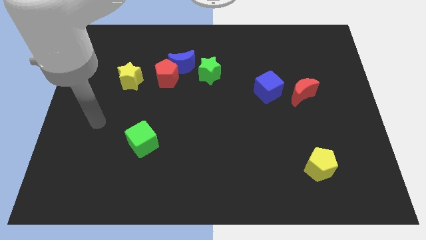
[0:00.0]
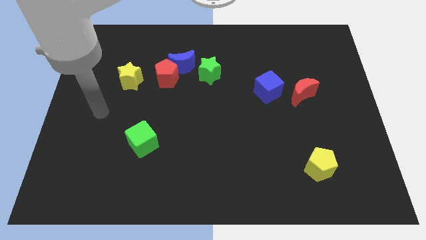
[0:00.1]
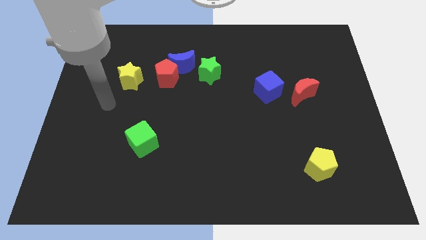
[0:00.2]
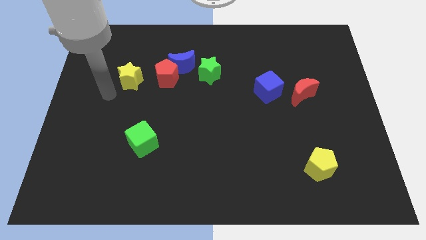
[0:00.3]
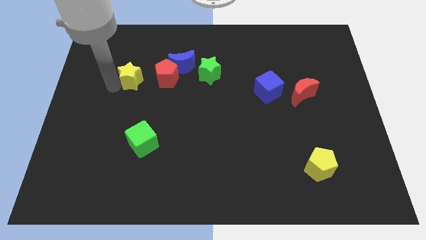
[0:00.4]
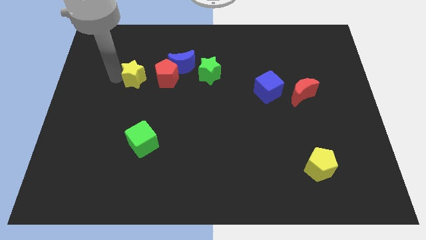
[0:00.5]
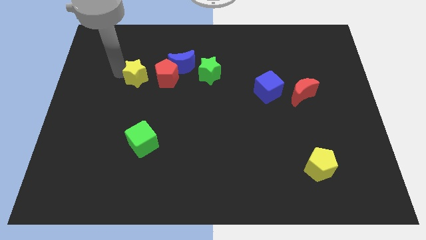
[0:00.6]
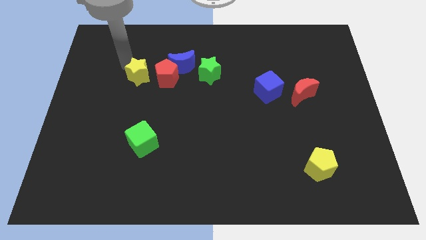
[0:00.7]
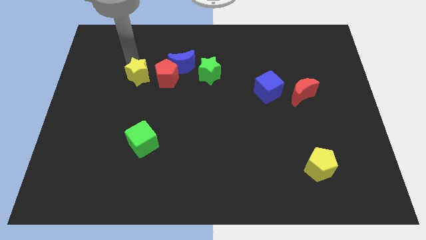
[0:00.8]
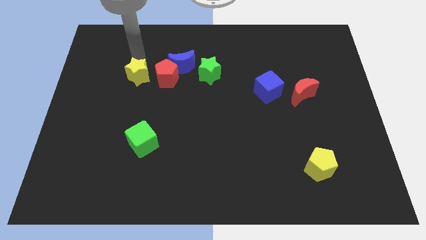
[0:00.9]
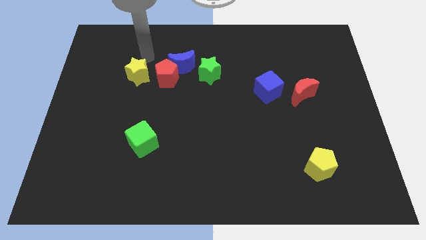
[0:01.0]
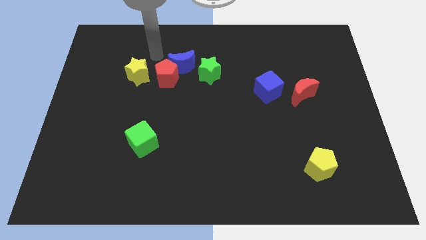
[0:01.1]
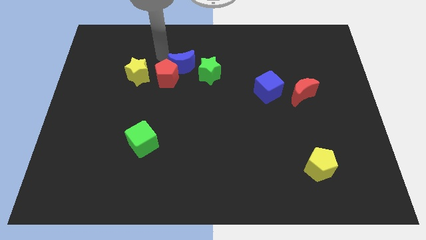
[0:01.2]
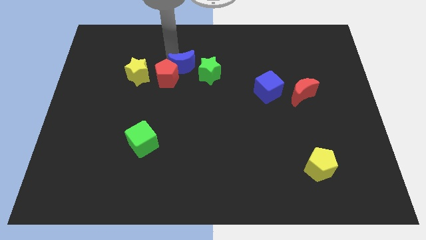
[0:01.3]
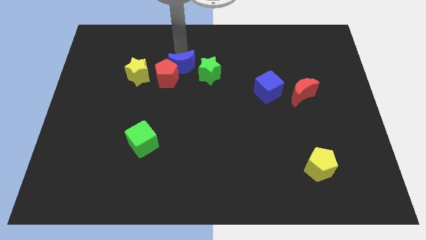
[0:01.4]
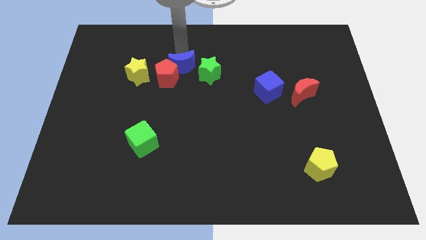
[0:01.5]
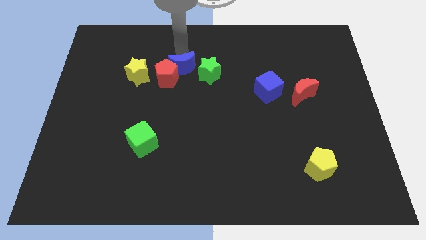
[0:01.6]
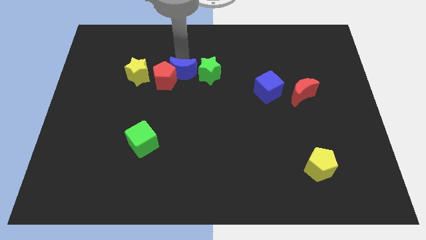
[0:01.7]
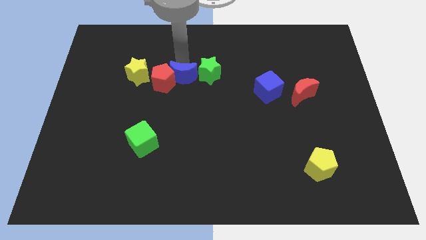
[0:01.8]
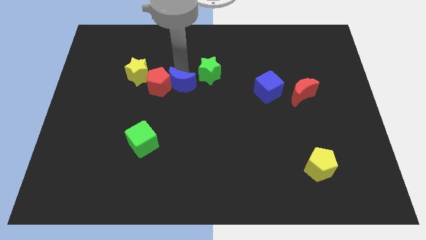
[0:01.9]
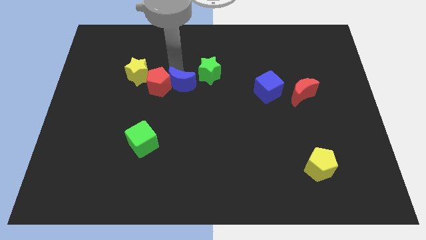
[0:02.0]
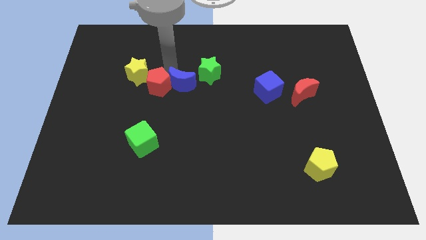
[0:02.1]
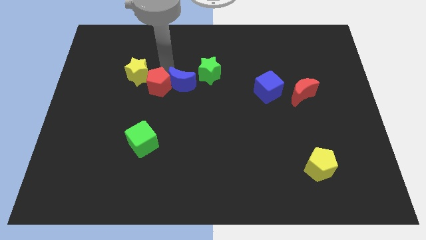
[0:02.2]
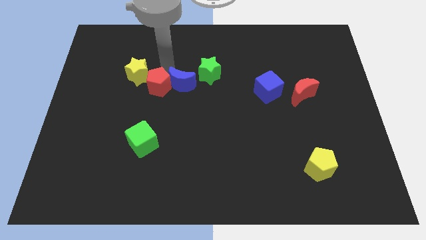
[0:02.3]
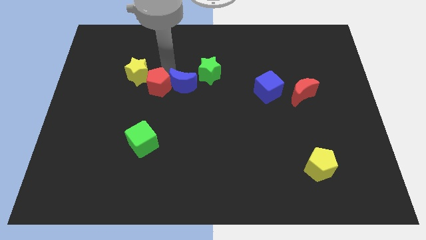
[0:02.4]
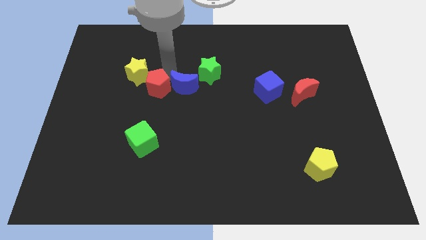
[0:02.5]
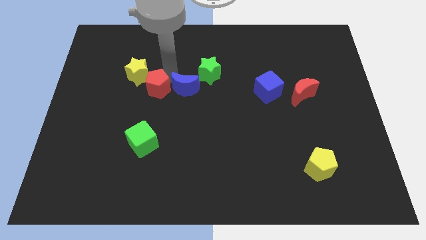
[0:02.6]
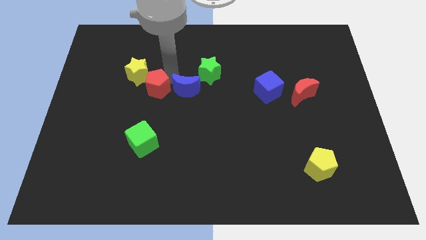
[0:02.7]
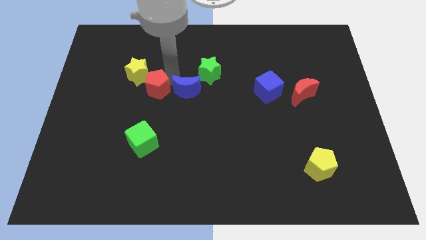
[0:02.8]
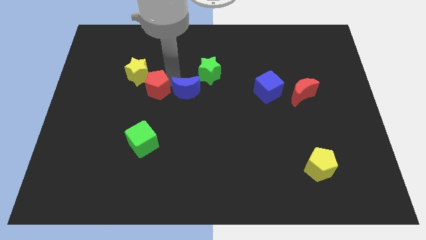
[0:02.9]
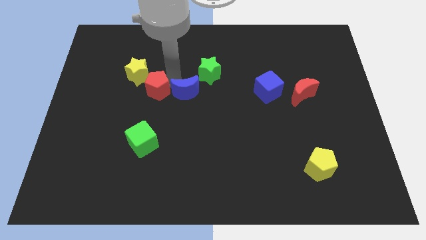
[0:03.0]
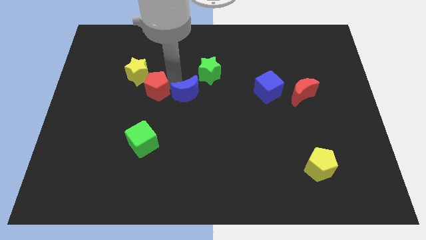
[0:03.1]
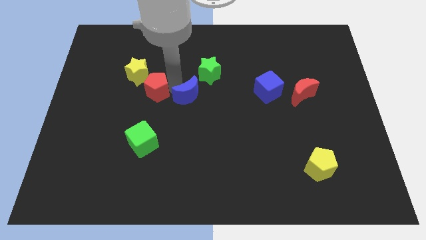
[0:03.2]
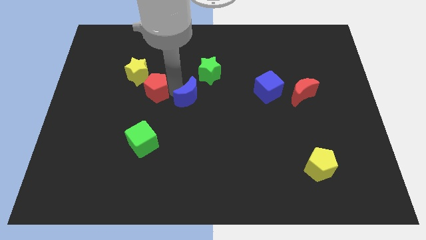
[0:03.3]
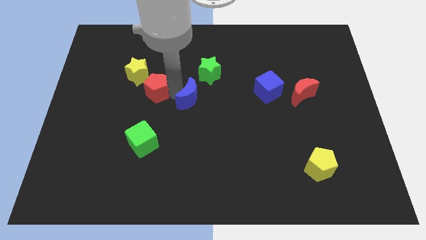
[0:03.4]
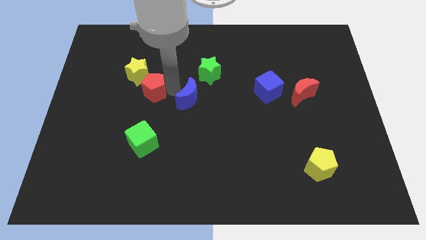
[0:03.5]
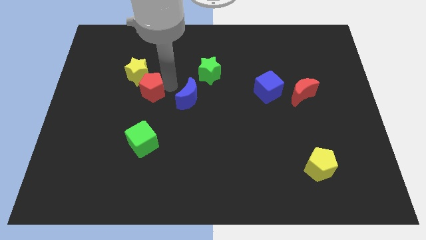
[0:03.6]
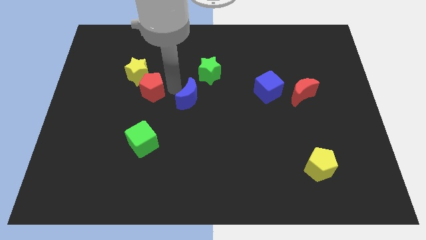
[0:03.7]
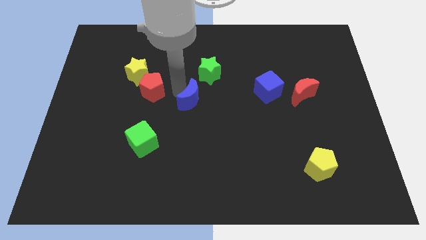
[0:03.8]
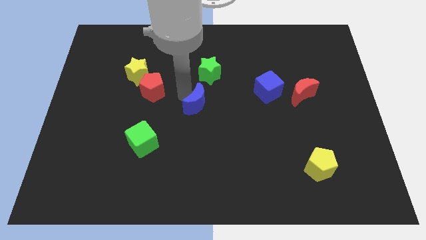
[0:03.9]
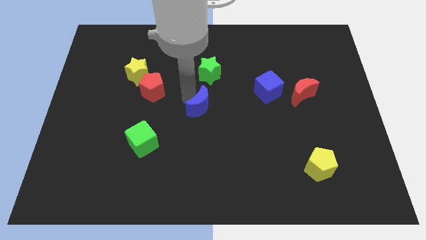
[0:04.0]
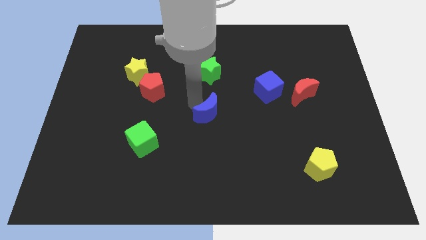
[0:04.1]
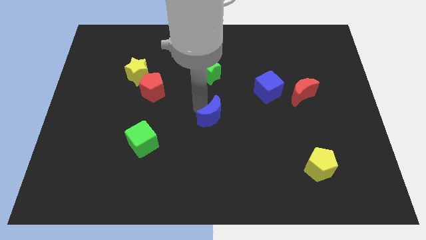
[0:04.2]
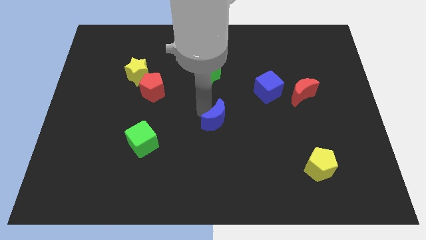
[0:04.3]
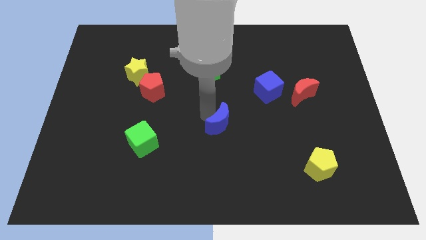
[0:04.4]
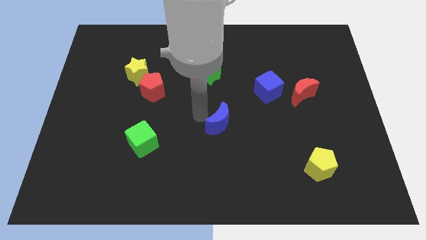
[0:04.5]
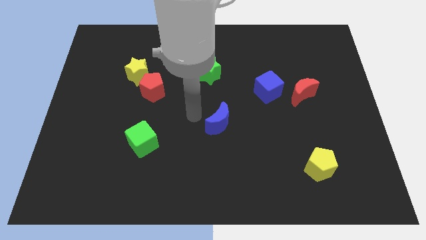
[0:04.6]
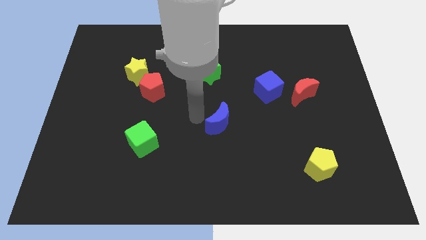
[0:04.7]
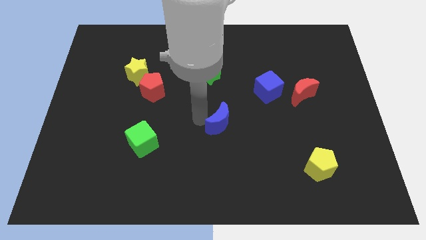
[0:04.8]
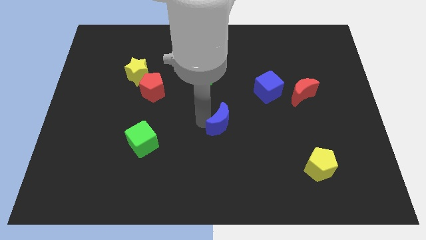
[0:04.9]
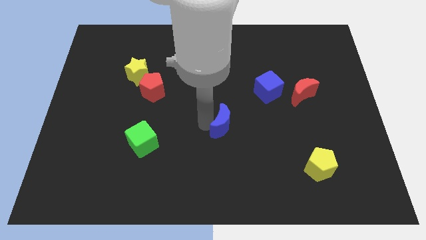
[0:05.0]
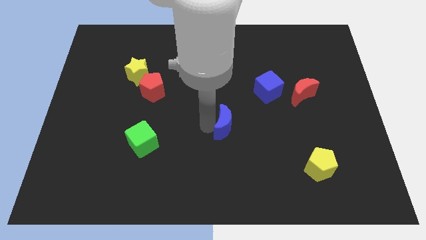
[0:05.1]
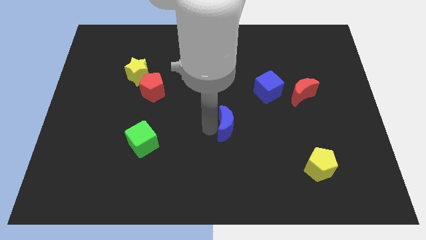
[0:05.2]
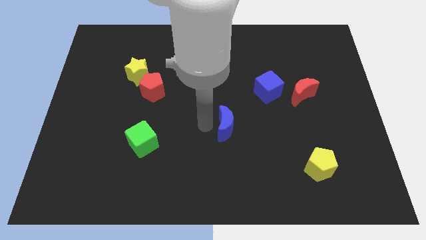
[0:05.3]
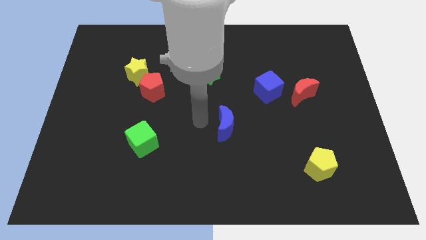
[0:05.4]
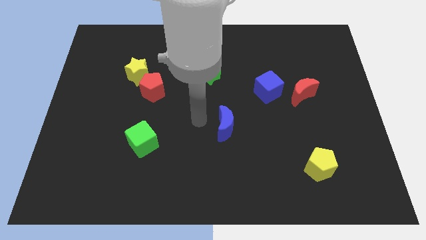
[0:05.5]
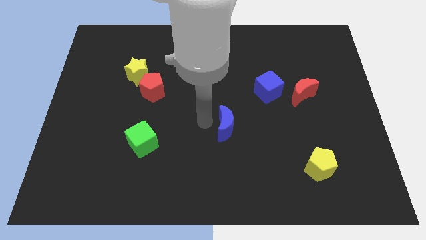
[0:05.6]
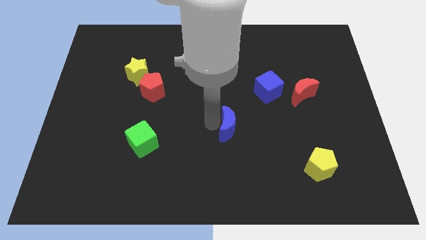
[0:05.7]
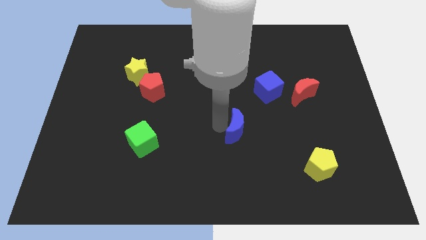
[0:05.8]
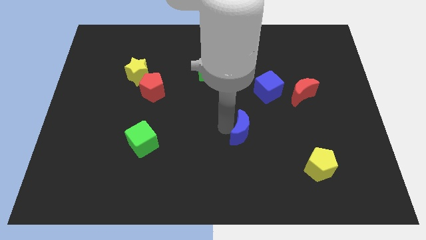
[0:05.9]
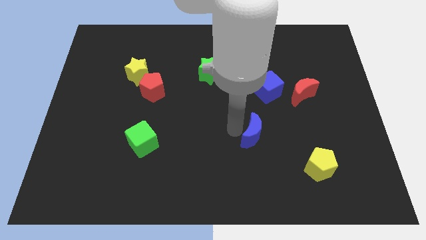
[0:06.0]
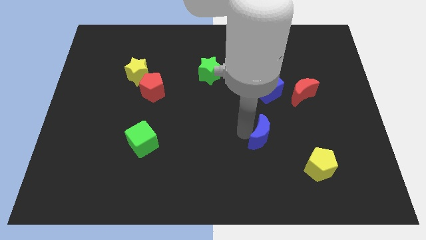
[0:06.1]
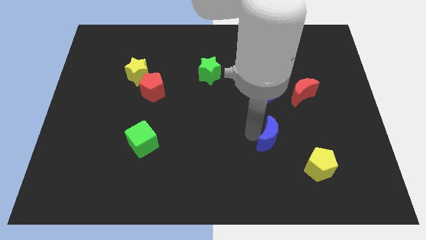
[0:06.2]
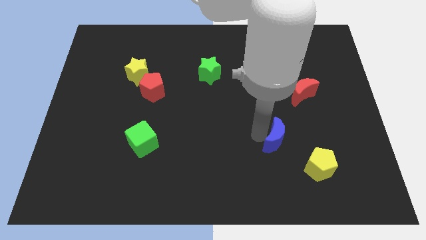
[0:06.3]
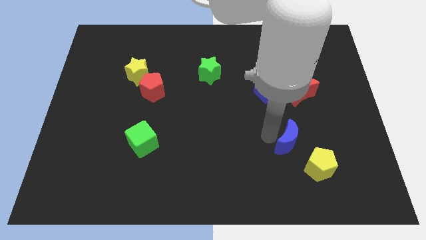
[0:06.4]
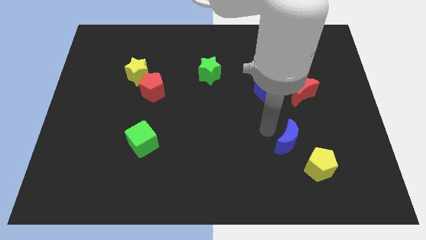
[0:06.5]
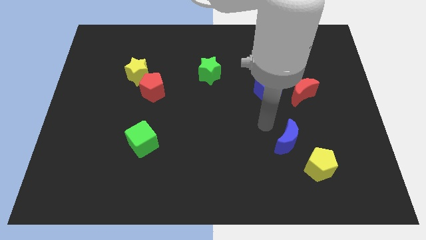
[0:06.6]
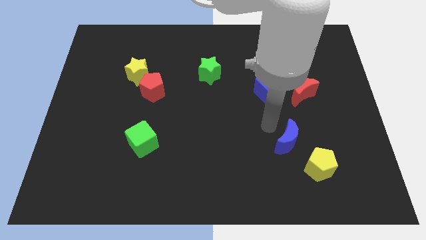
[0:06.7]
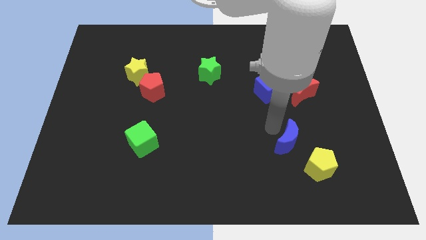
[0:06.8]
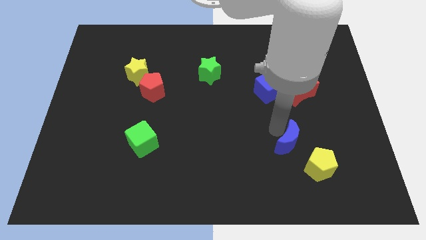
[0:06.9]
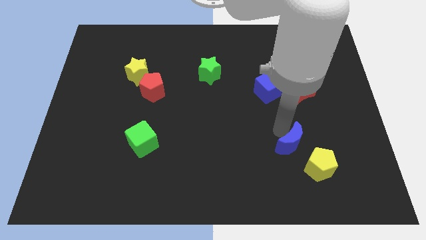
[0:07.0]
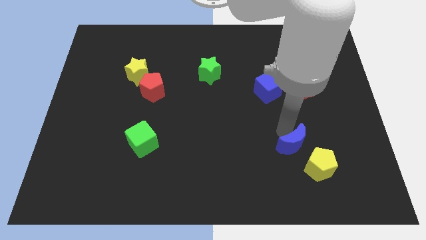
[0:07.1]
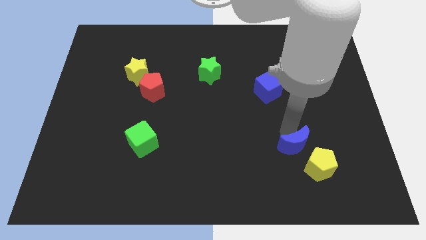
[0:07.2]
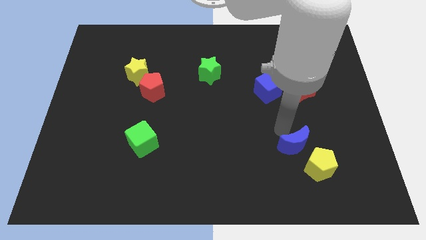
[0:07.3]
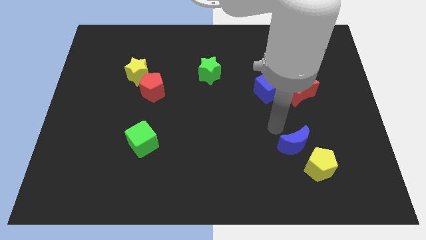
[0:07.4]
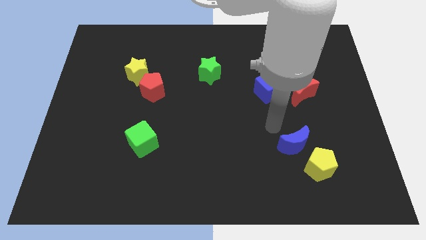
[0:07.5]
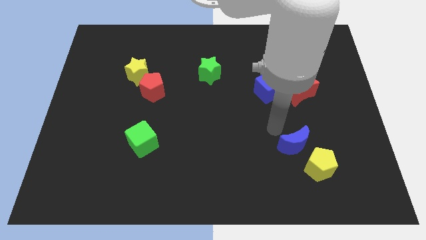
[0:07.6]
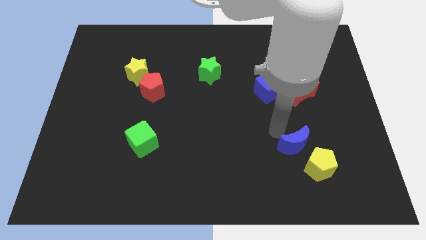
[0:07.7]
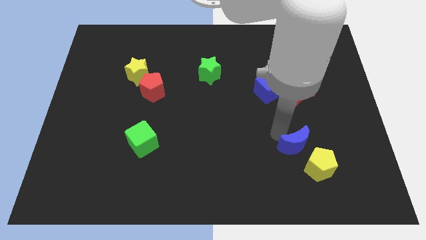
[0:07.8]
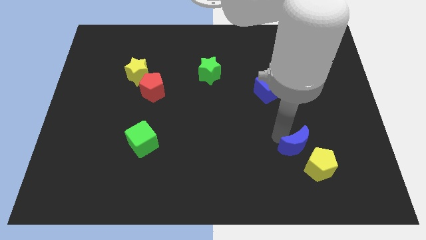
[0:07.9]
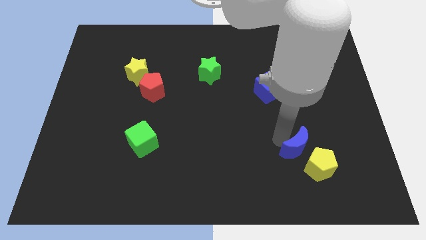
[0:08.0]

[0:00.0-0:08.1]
move the blue moon next to the yellow pentagon
